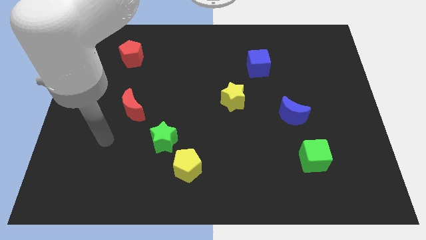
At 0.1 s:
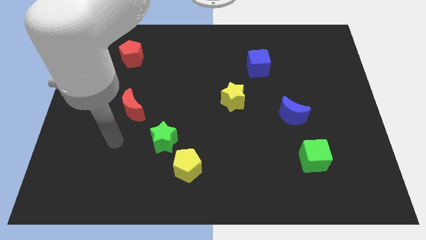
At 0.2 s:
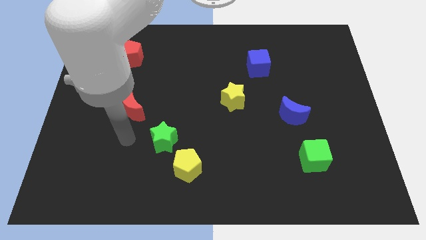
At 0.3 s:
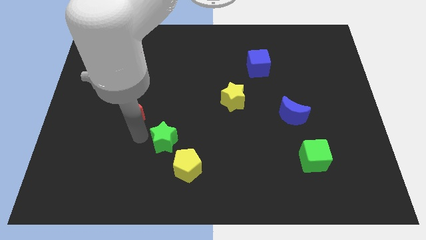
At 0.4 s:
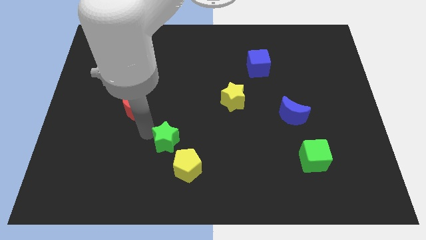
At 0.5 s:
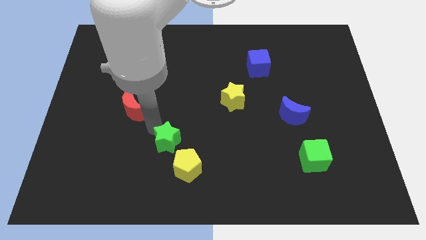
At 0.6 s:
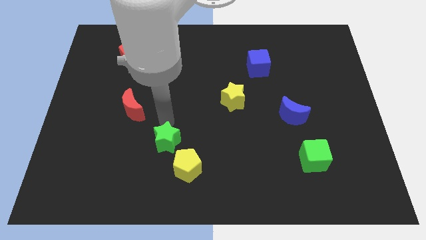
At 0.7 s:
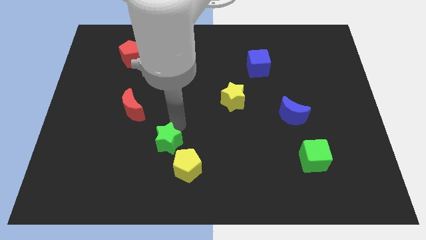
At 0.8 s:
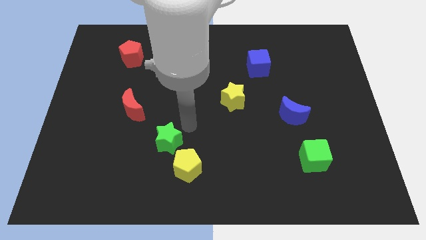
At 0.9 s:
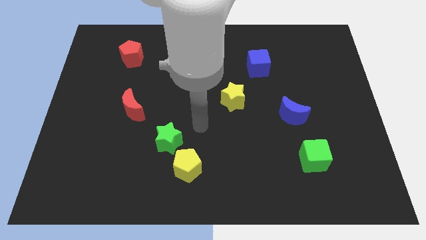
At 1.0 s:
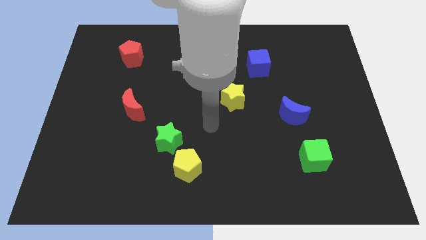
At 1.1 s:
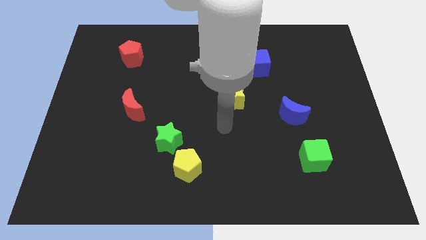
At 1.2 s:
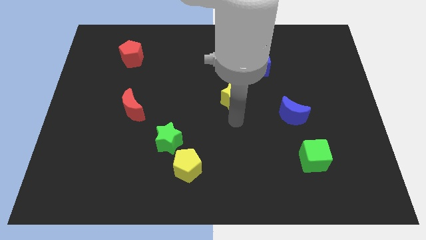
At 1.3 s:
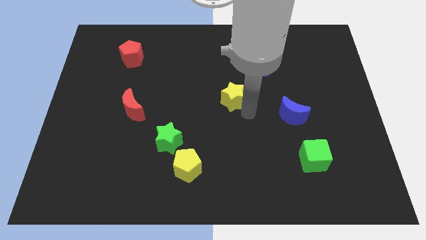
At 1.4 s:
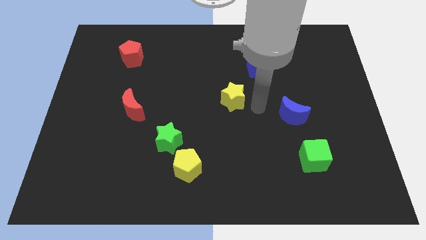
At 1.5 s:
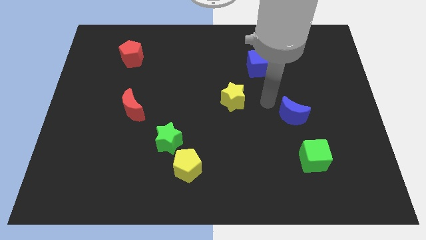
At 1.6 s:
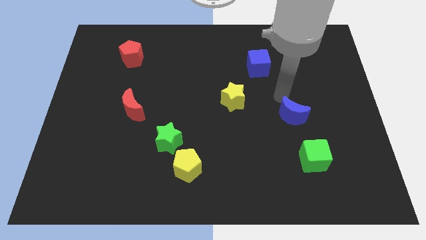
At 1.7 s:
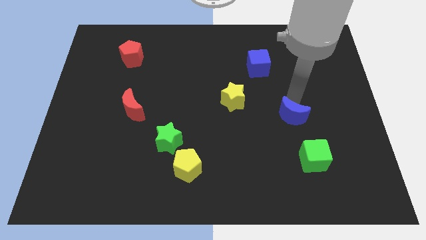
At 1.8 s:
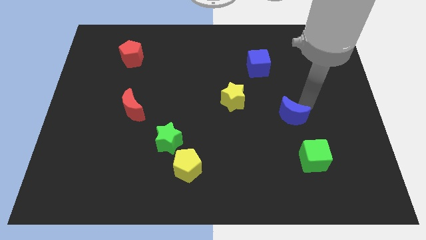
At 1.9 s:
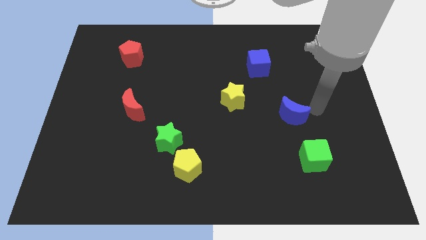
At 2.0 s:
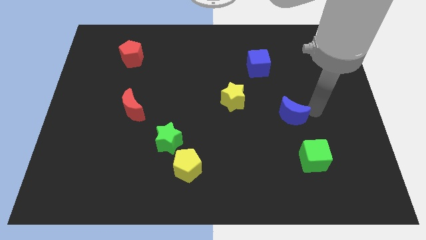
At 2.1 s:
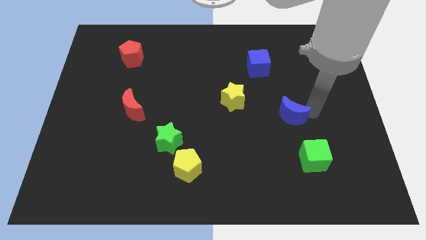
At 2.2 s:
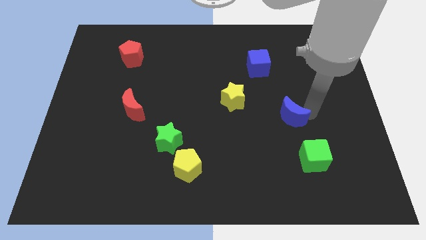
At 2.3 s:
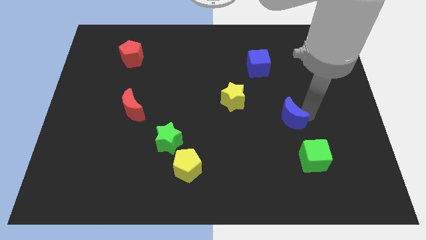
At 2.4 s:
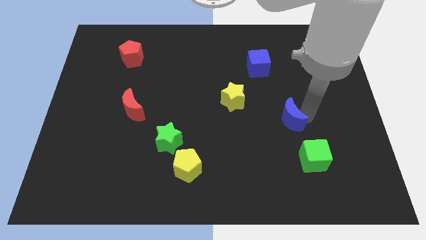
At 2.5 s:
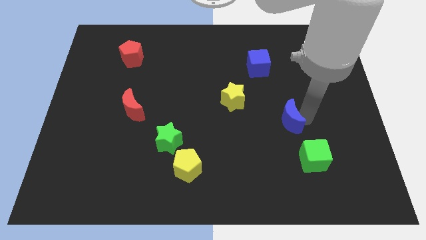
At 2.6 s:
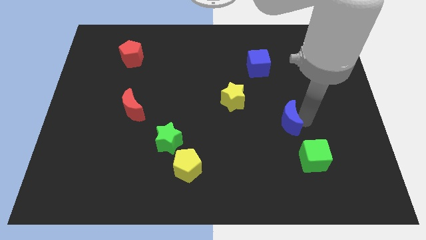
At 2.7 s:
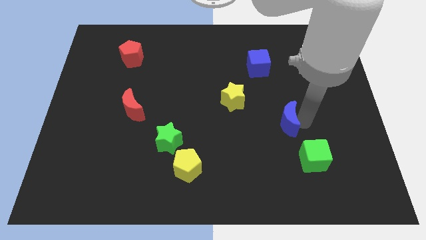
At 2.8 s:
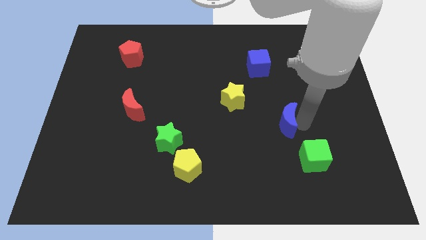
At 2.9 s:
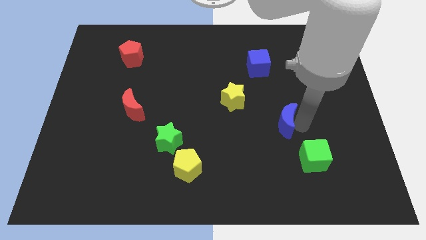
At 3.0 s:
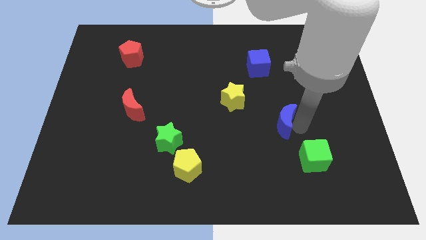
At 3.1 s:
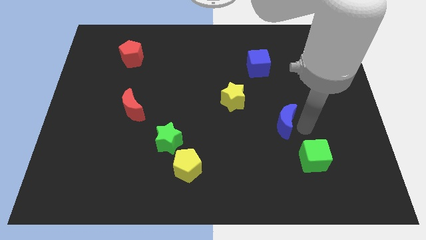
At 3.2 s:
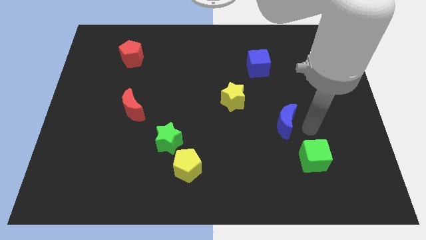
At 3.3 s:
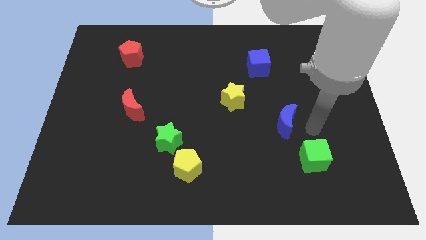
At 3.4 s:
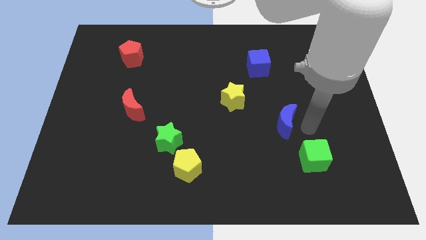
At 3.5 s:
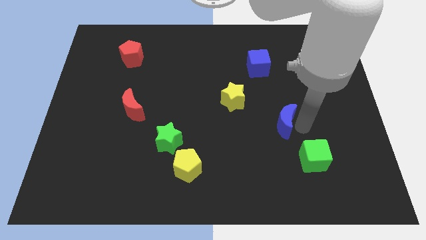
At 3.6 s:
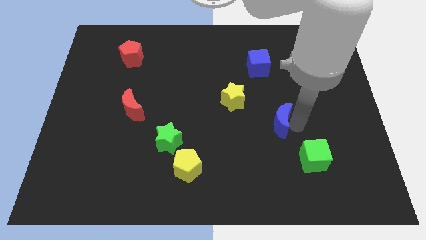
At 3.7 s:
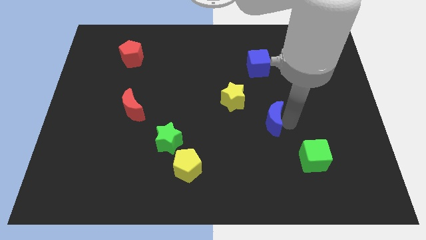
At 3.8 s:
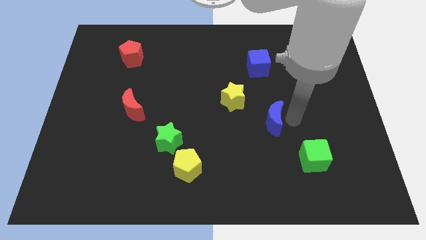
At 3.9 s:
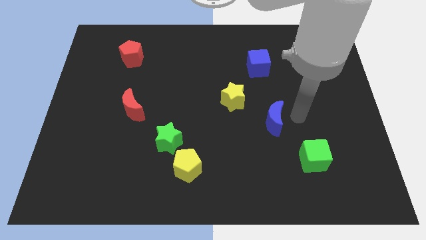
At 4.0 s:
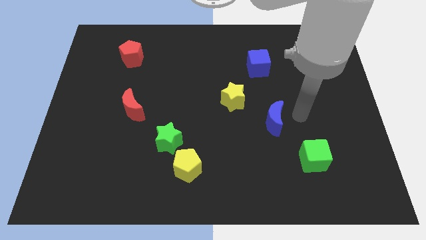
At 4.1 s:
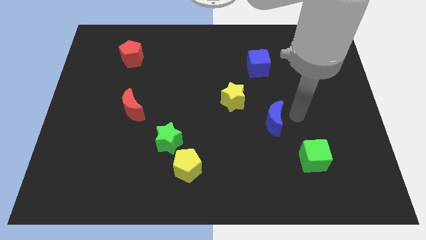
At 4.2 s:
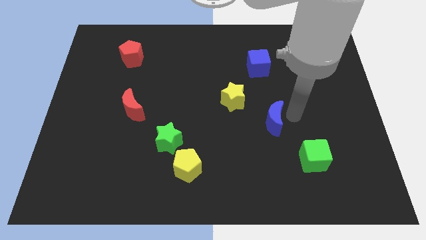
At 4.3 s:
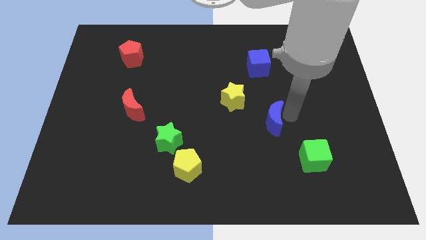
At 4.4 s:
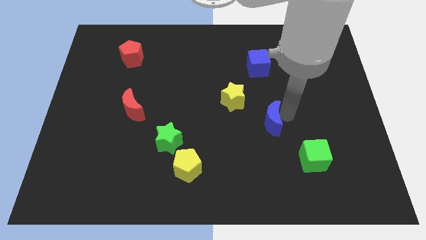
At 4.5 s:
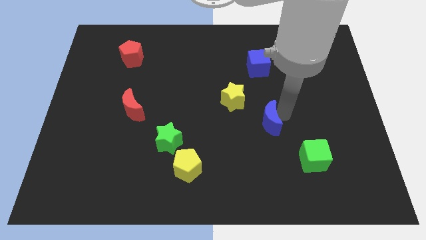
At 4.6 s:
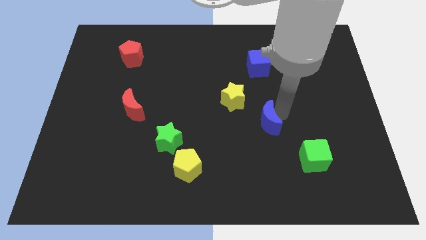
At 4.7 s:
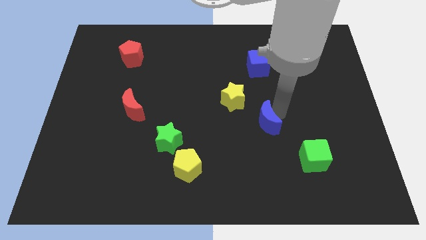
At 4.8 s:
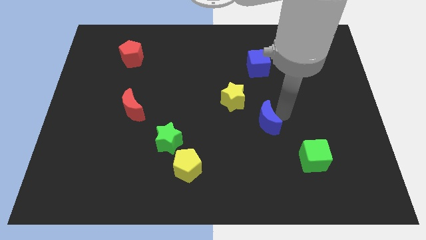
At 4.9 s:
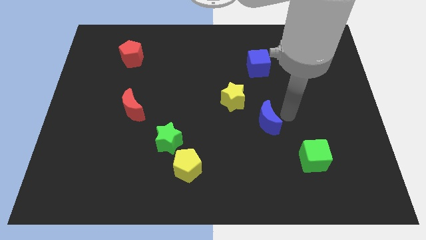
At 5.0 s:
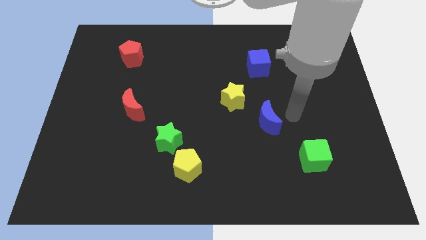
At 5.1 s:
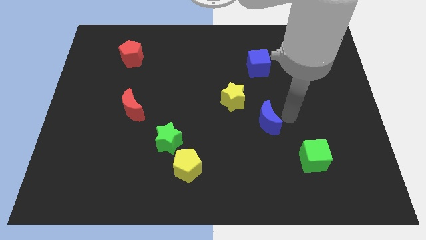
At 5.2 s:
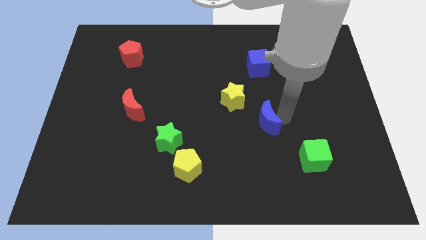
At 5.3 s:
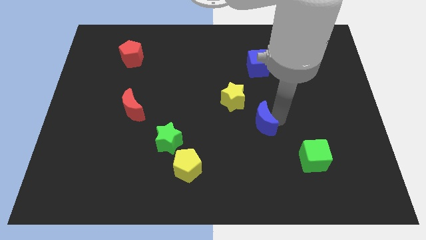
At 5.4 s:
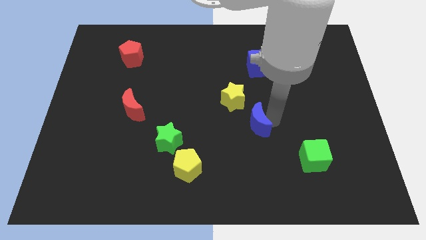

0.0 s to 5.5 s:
slightly push the blue moon to the left

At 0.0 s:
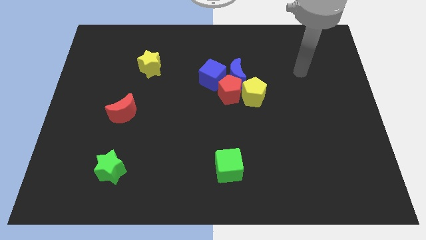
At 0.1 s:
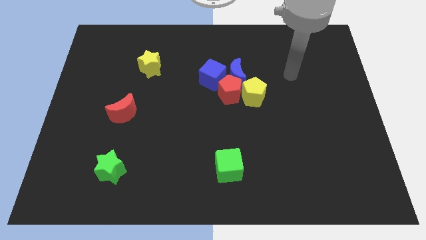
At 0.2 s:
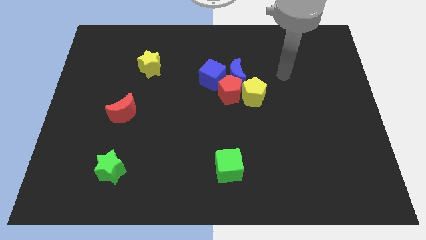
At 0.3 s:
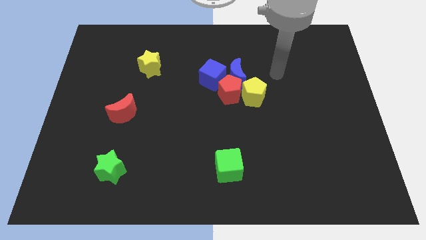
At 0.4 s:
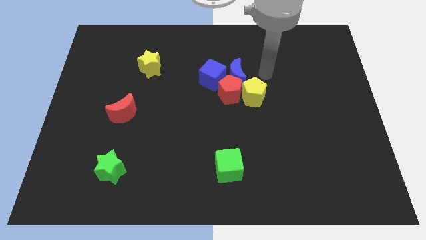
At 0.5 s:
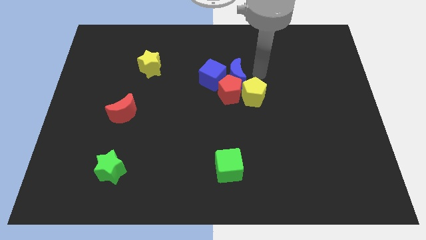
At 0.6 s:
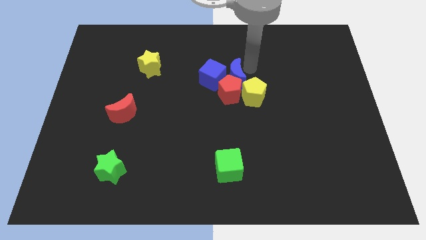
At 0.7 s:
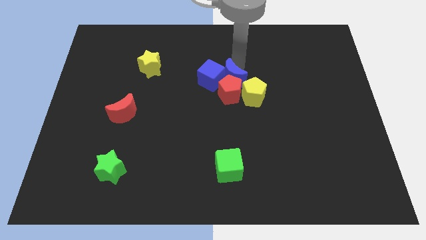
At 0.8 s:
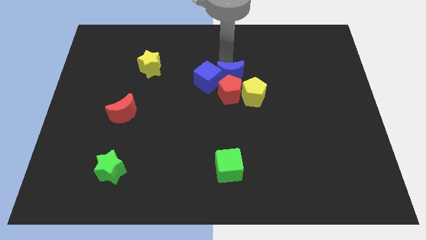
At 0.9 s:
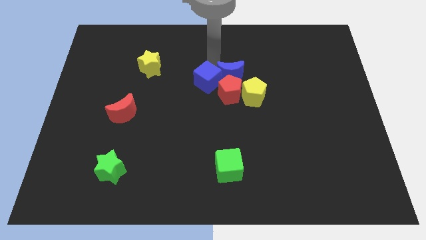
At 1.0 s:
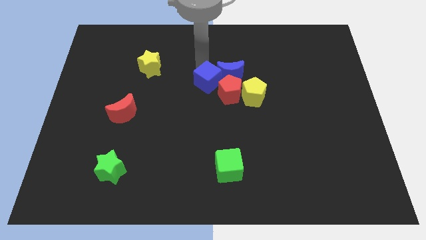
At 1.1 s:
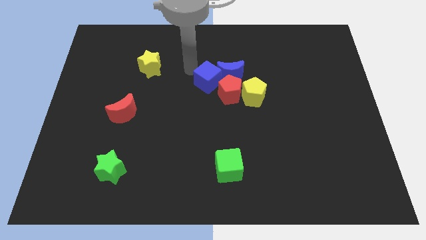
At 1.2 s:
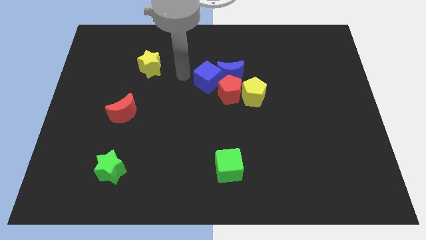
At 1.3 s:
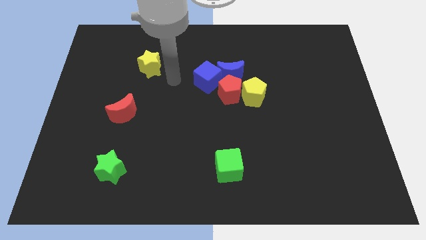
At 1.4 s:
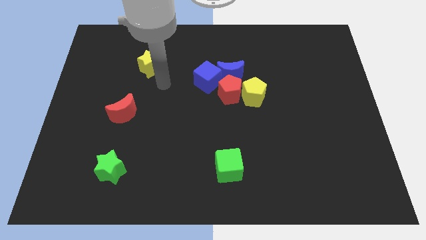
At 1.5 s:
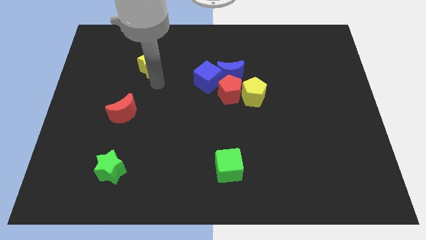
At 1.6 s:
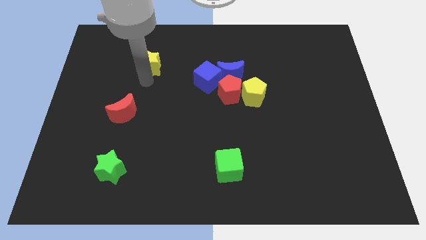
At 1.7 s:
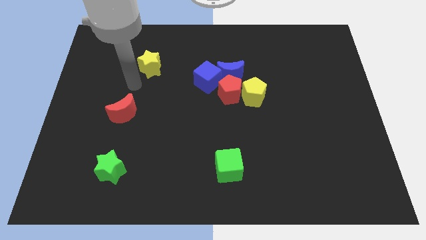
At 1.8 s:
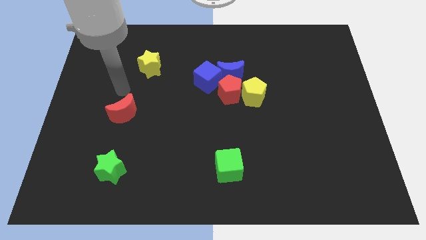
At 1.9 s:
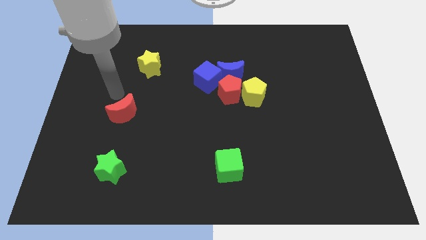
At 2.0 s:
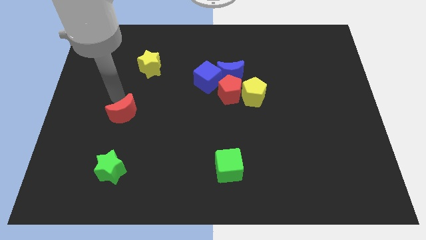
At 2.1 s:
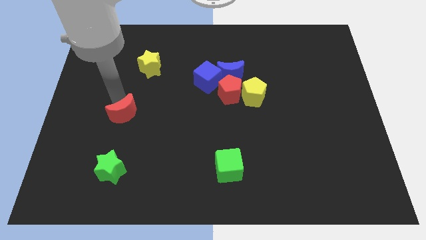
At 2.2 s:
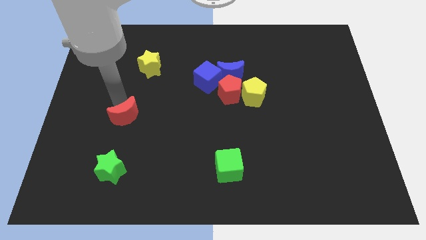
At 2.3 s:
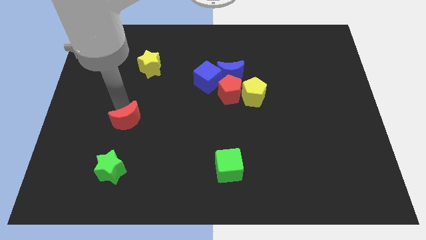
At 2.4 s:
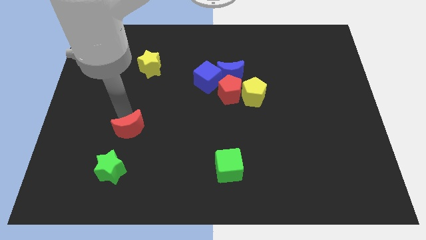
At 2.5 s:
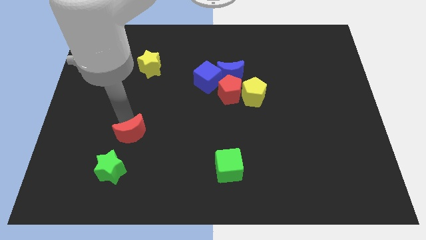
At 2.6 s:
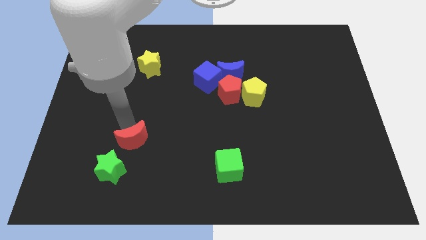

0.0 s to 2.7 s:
slightly slide the red moon downwards and then to the right

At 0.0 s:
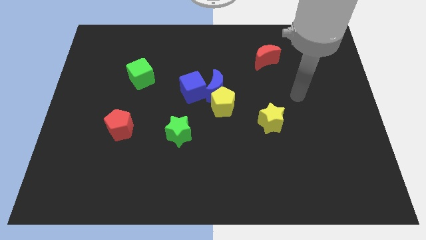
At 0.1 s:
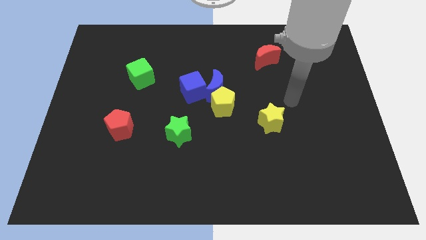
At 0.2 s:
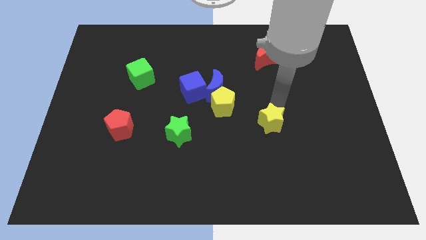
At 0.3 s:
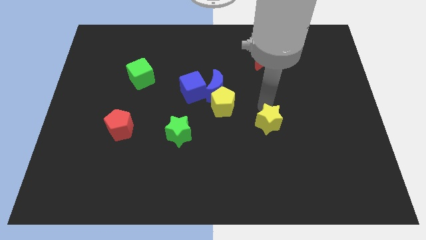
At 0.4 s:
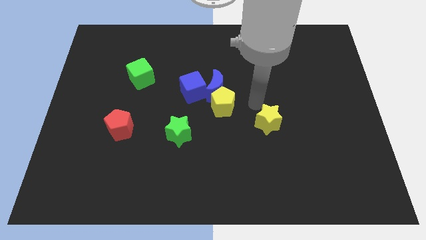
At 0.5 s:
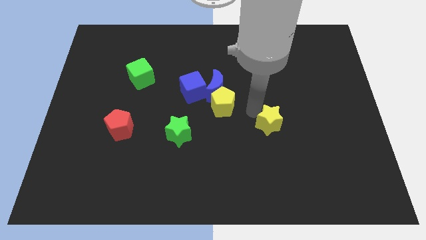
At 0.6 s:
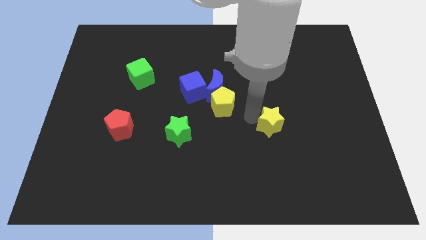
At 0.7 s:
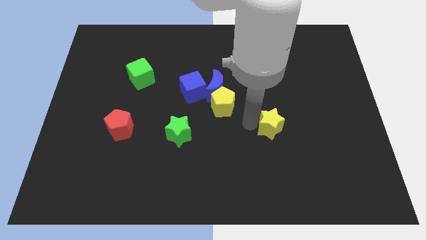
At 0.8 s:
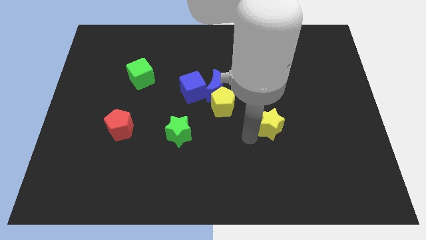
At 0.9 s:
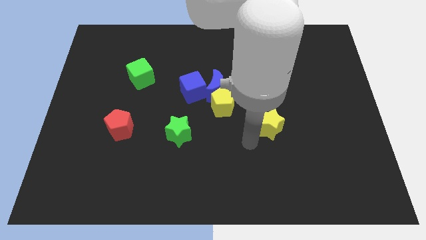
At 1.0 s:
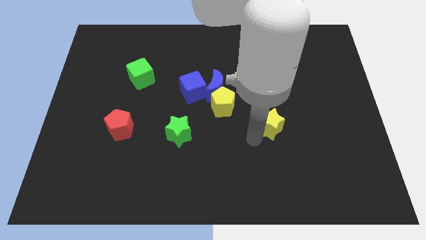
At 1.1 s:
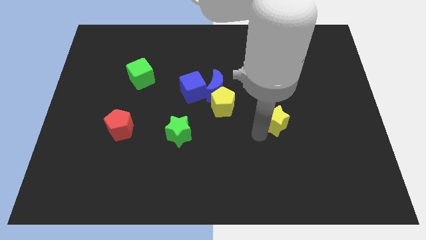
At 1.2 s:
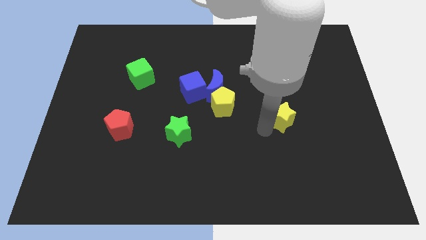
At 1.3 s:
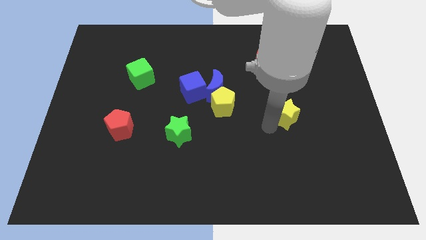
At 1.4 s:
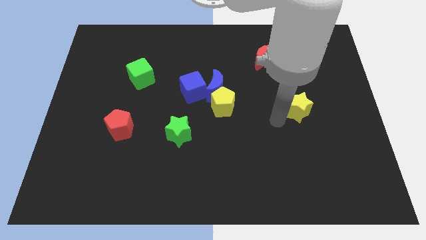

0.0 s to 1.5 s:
slightly push the yellow star up and to the right
